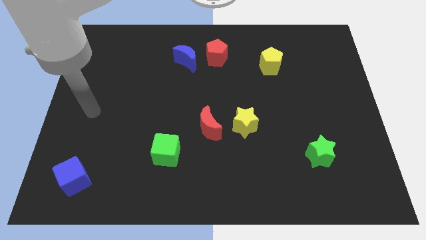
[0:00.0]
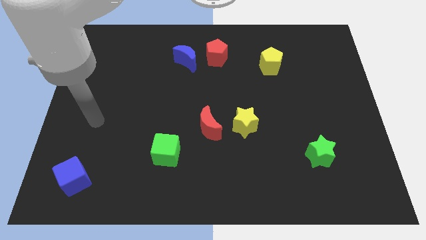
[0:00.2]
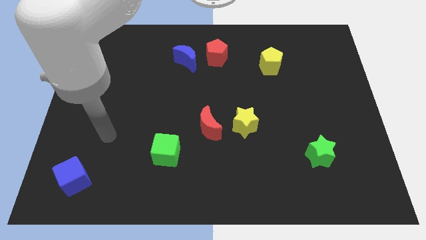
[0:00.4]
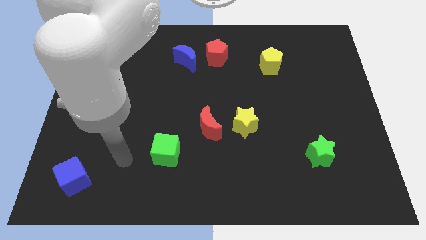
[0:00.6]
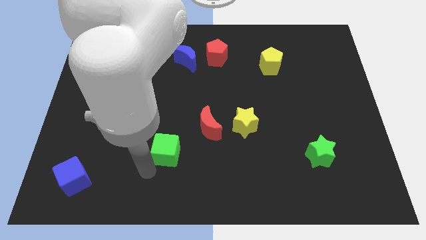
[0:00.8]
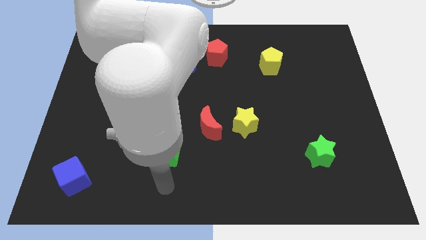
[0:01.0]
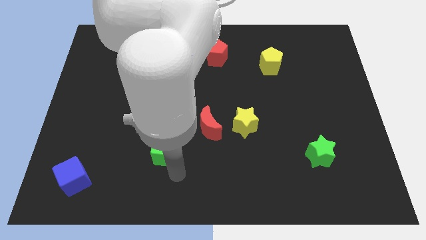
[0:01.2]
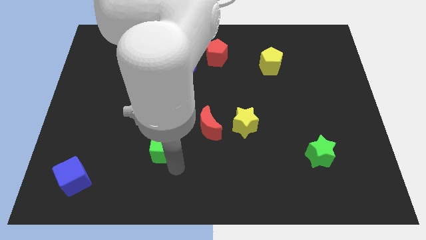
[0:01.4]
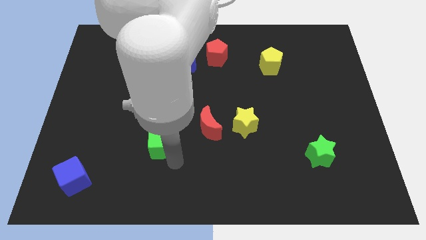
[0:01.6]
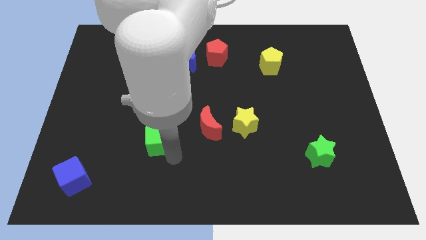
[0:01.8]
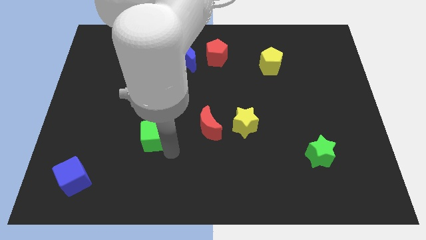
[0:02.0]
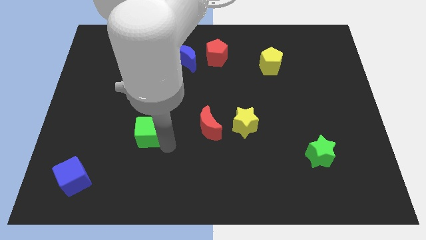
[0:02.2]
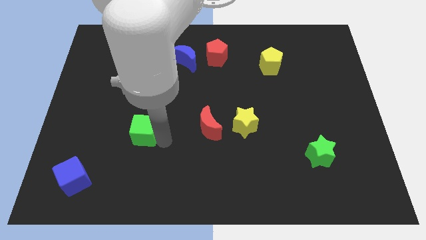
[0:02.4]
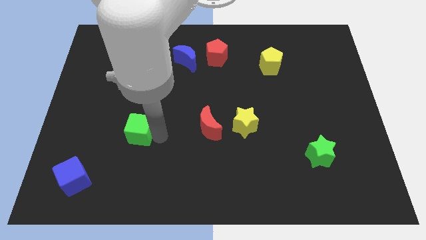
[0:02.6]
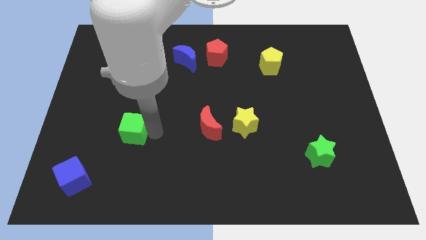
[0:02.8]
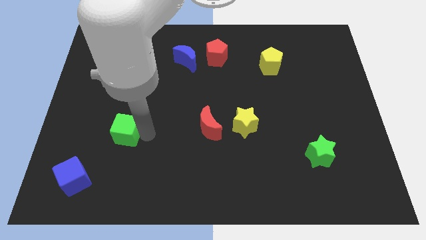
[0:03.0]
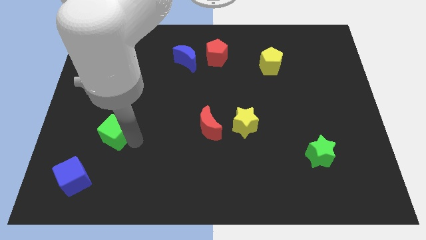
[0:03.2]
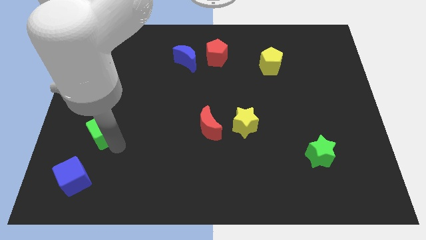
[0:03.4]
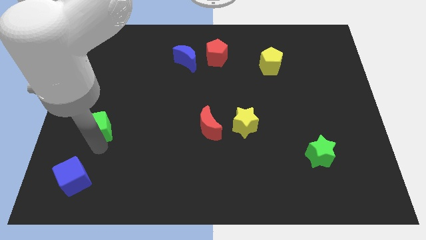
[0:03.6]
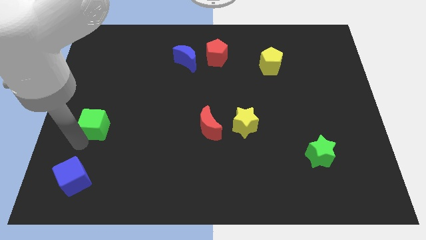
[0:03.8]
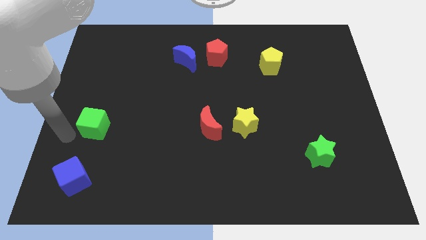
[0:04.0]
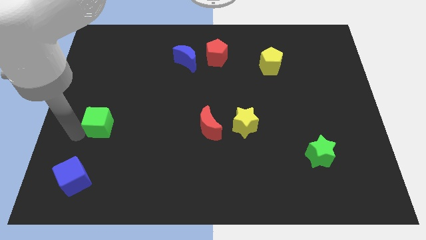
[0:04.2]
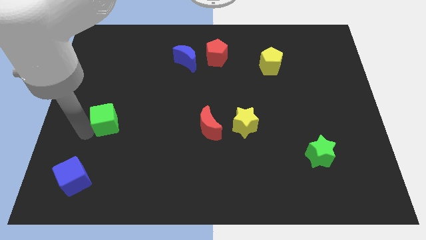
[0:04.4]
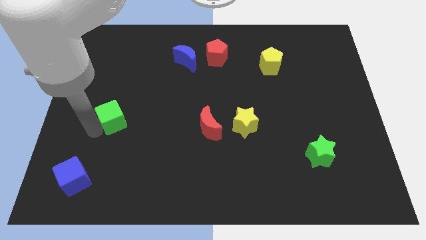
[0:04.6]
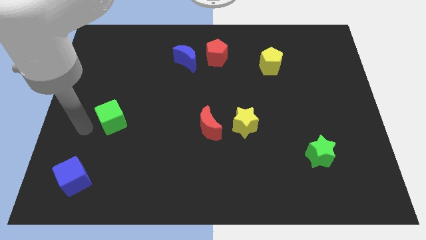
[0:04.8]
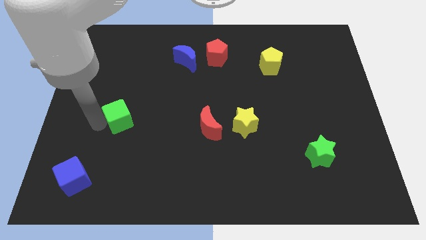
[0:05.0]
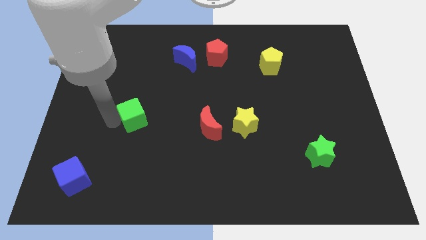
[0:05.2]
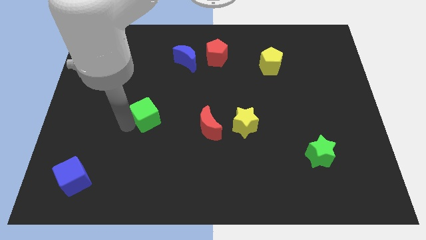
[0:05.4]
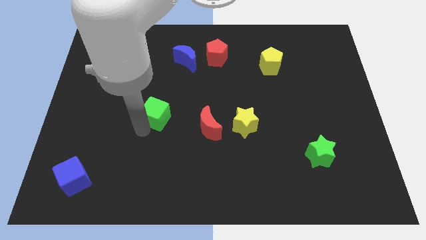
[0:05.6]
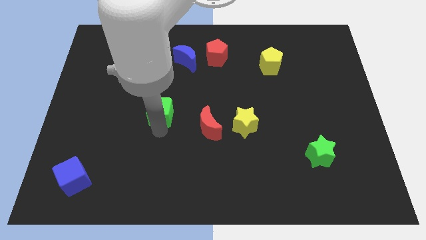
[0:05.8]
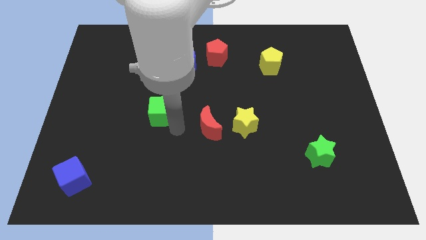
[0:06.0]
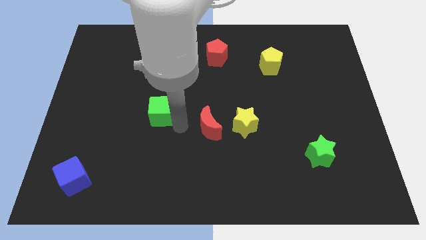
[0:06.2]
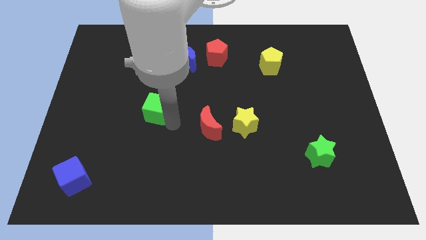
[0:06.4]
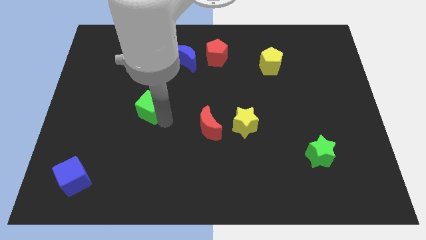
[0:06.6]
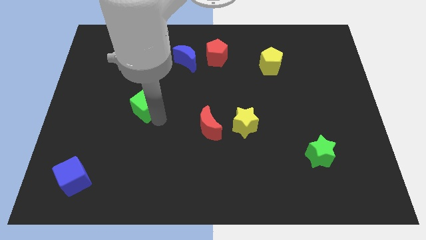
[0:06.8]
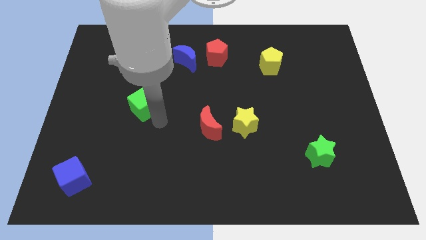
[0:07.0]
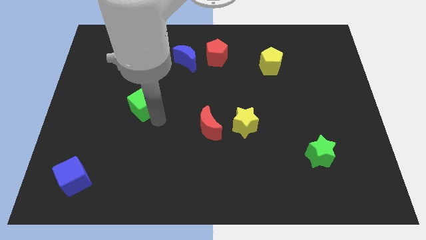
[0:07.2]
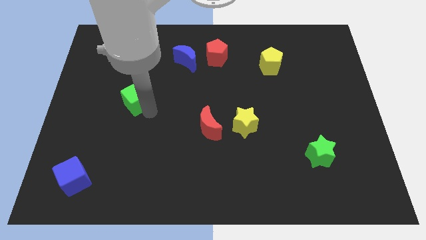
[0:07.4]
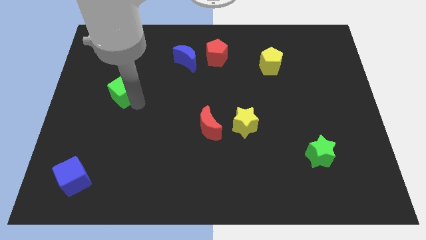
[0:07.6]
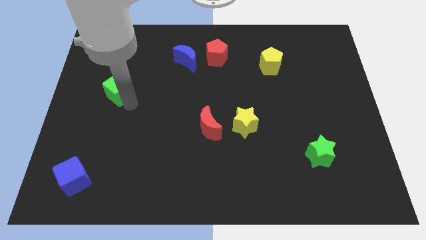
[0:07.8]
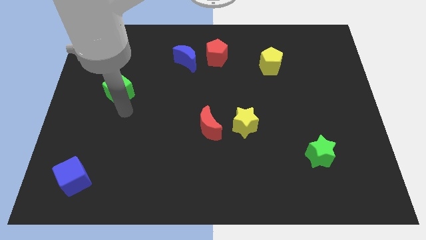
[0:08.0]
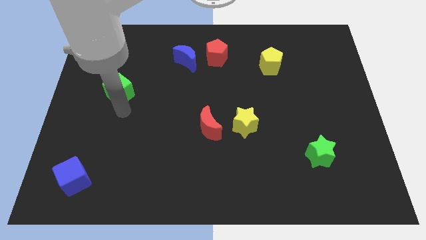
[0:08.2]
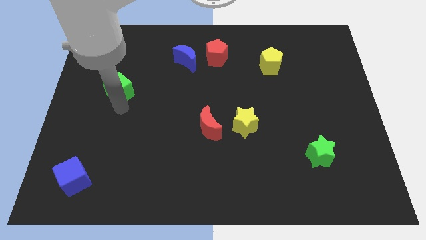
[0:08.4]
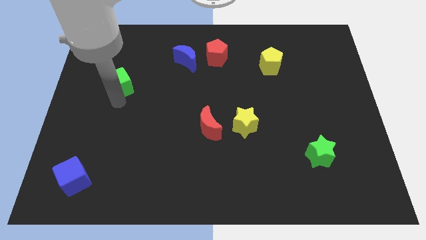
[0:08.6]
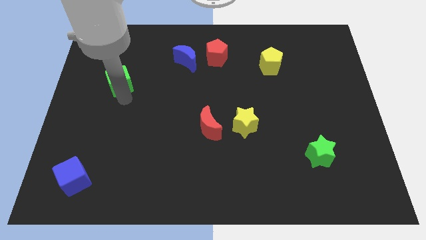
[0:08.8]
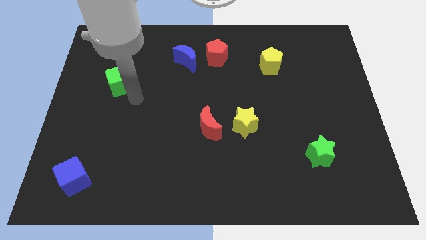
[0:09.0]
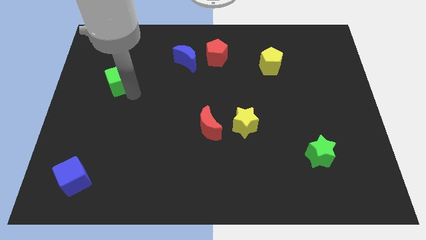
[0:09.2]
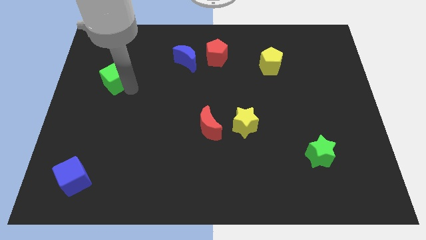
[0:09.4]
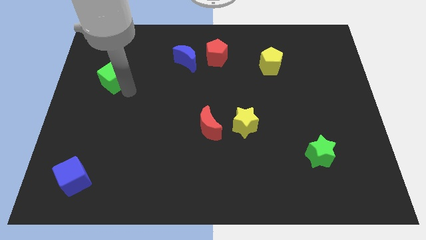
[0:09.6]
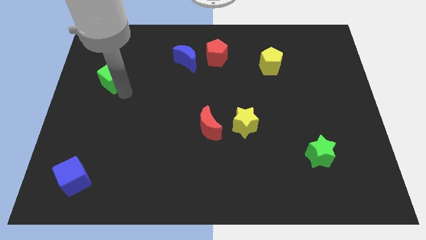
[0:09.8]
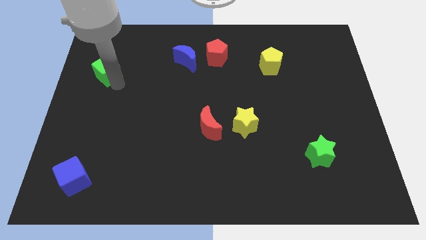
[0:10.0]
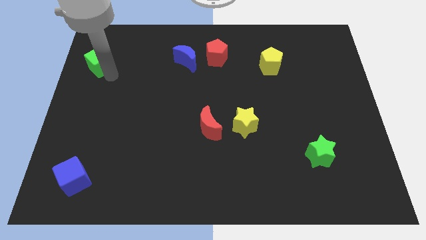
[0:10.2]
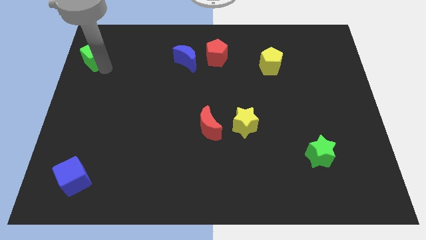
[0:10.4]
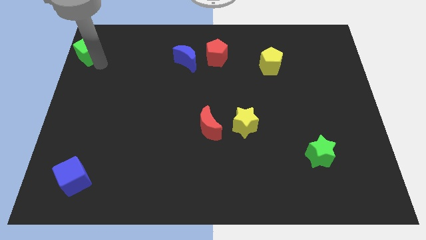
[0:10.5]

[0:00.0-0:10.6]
slide the green cube to the upper left corner
